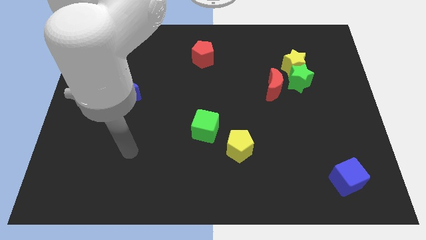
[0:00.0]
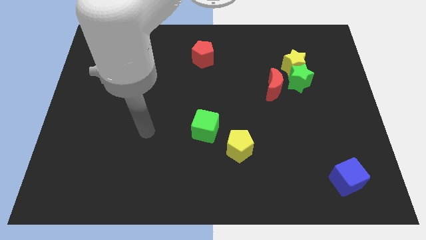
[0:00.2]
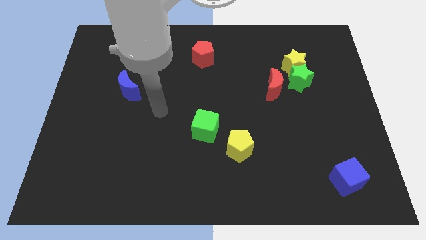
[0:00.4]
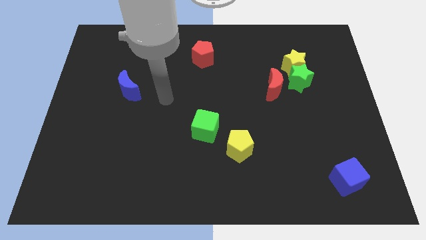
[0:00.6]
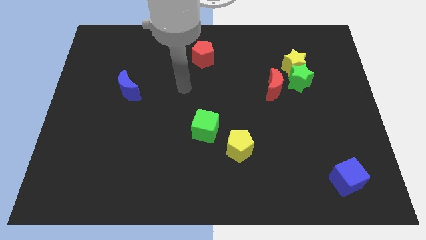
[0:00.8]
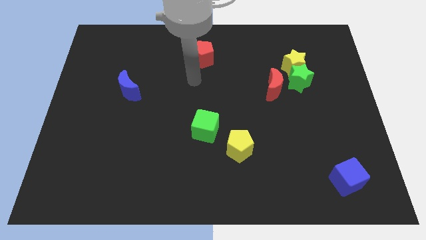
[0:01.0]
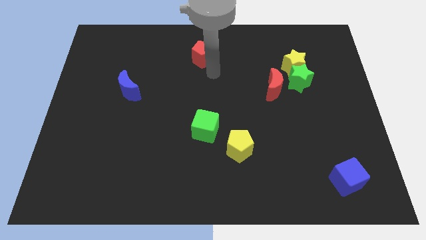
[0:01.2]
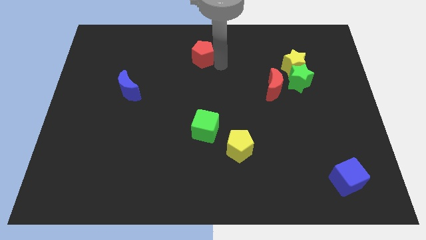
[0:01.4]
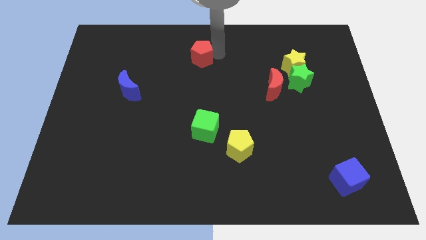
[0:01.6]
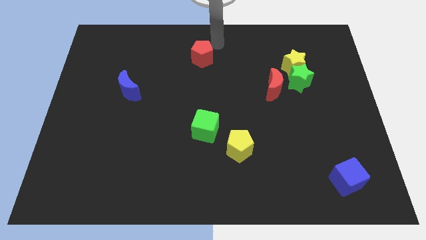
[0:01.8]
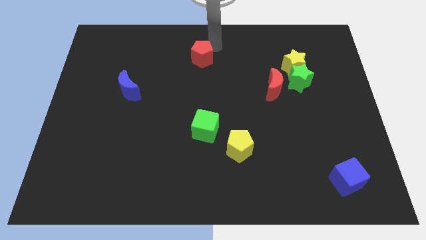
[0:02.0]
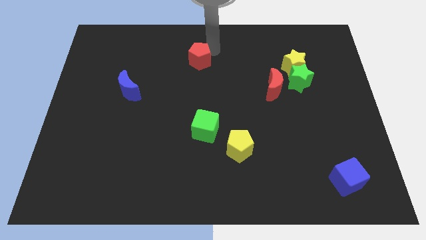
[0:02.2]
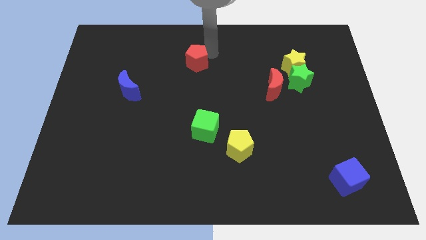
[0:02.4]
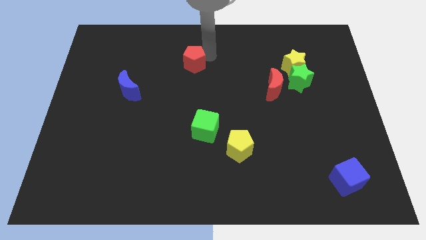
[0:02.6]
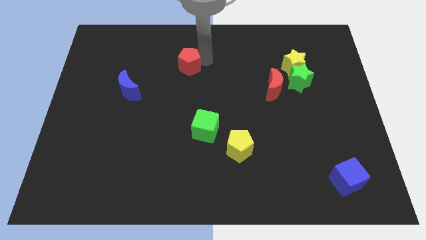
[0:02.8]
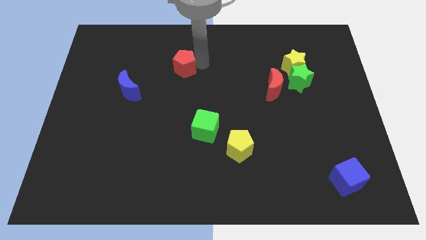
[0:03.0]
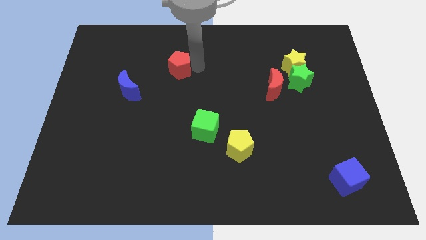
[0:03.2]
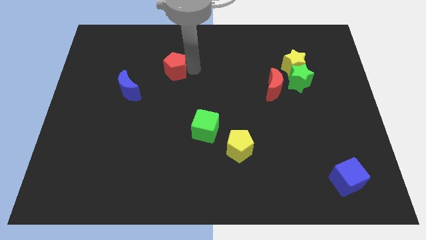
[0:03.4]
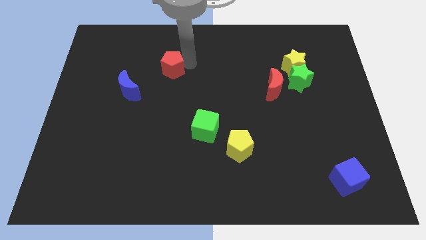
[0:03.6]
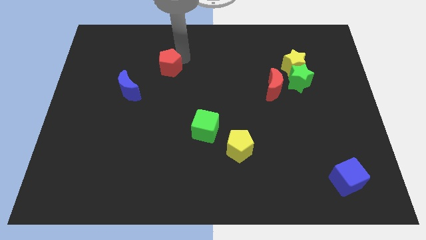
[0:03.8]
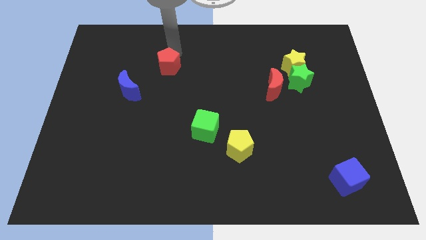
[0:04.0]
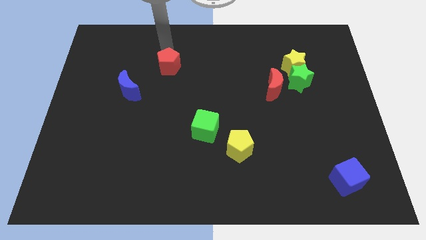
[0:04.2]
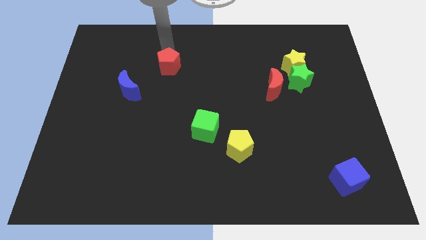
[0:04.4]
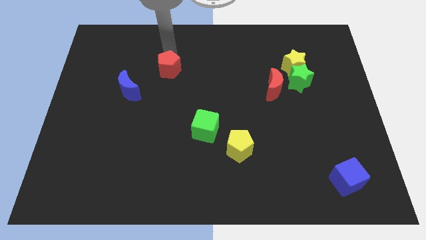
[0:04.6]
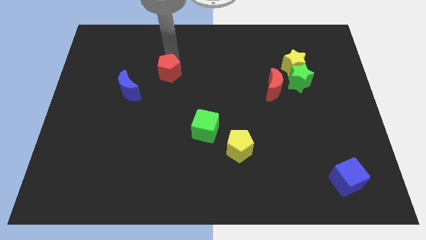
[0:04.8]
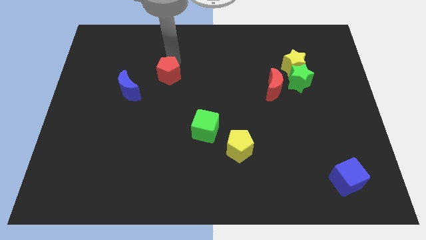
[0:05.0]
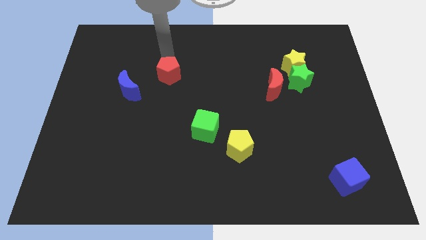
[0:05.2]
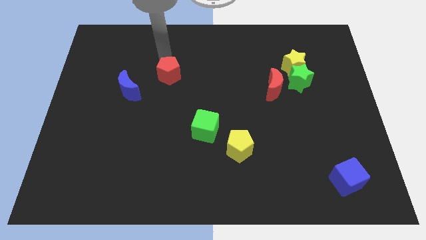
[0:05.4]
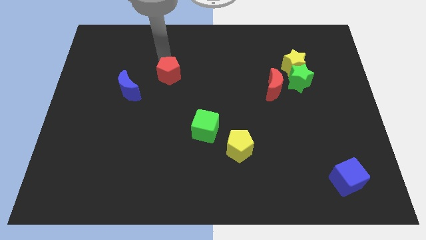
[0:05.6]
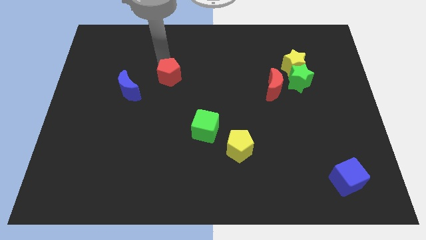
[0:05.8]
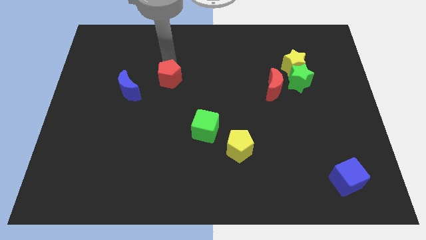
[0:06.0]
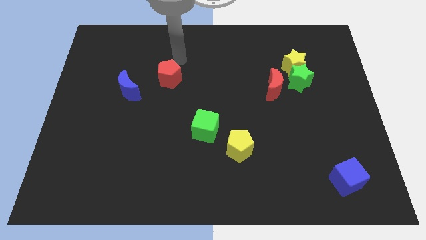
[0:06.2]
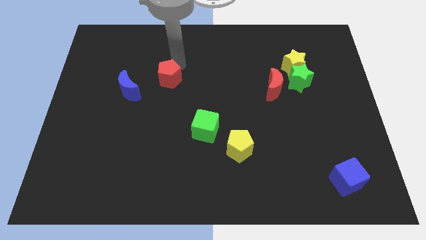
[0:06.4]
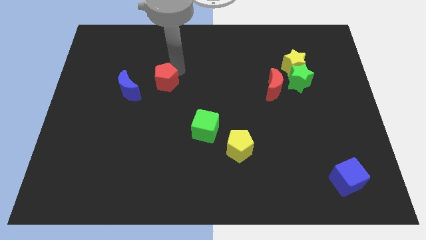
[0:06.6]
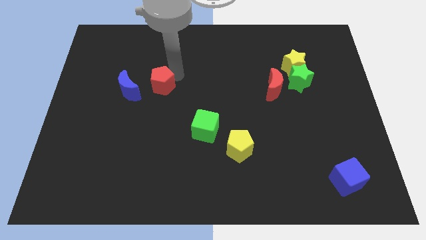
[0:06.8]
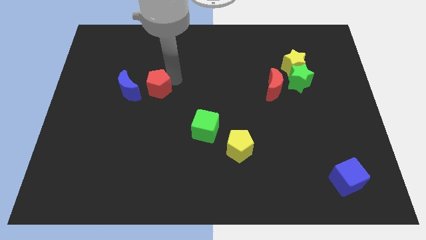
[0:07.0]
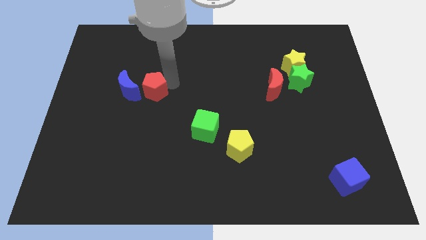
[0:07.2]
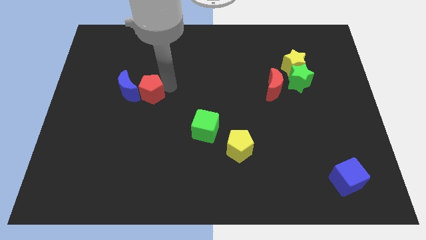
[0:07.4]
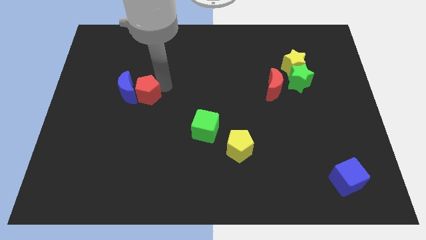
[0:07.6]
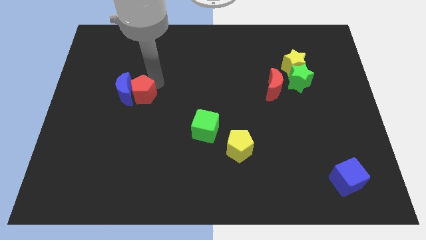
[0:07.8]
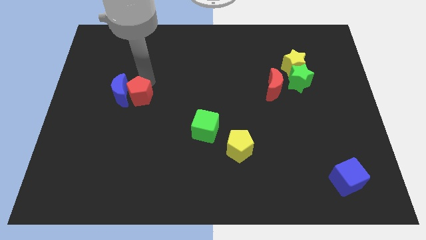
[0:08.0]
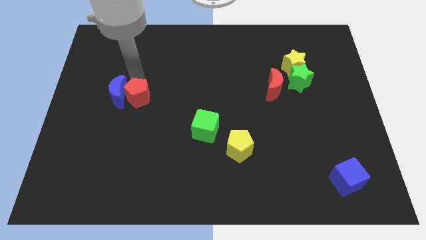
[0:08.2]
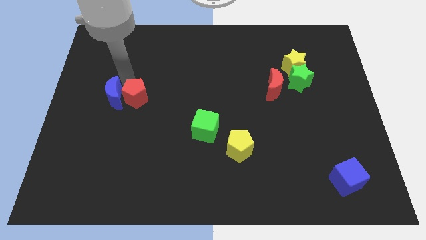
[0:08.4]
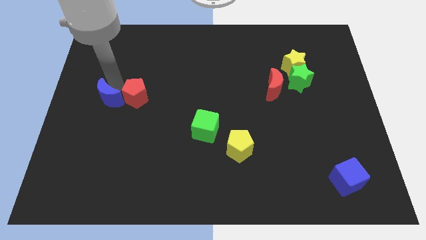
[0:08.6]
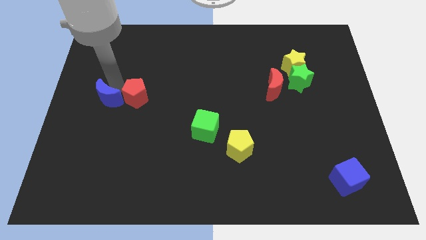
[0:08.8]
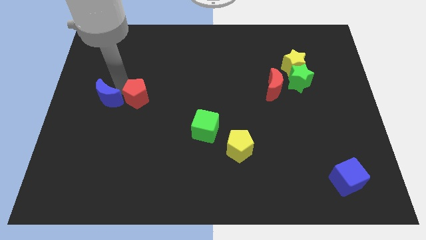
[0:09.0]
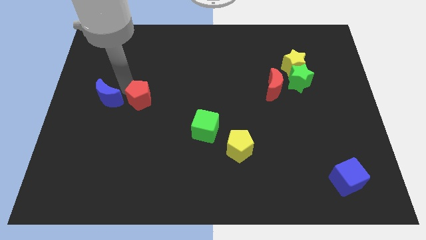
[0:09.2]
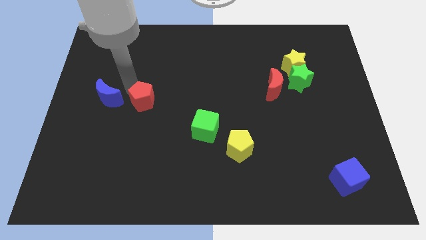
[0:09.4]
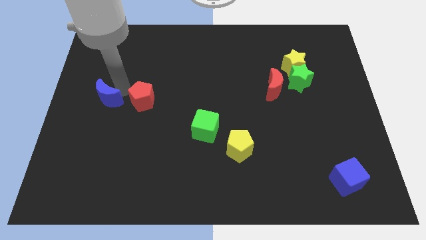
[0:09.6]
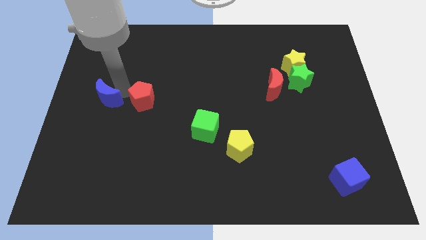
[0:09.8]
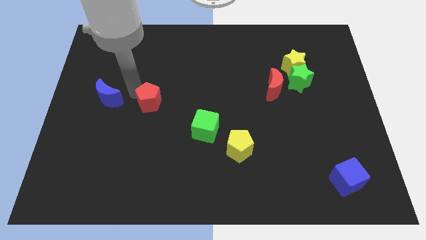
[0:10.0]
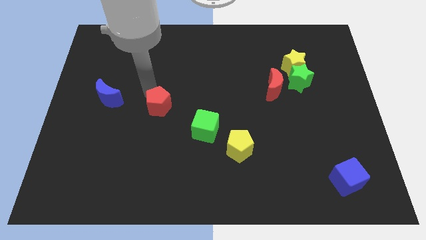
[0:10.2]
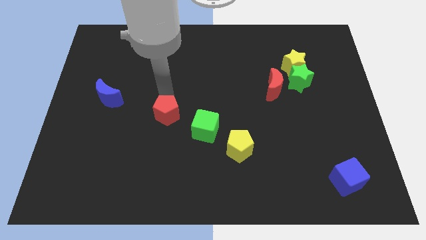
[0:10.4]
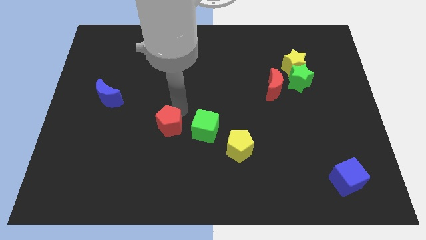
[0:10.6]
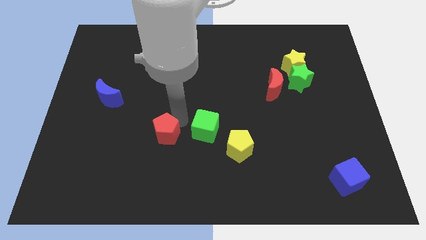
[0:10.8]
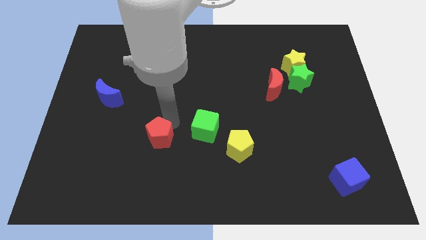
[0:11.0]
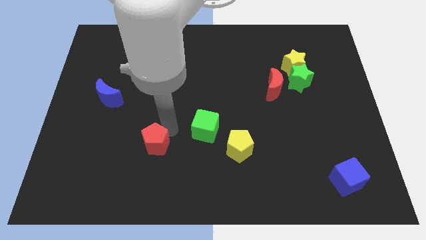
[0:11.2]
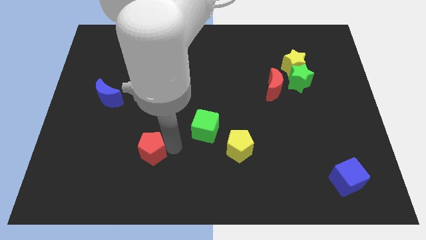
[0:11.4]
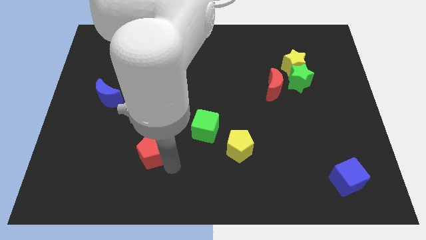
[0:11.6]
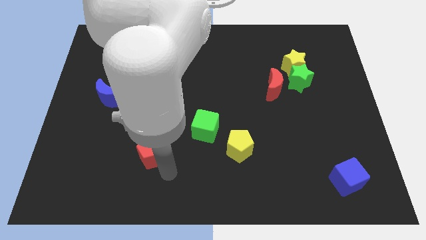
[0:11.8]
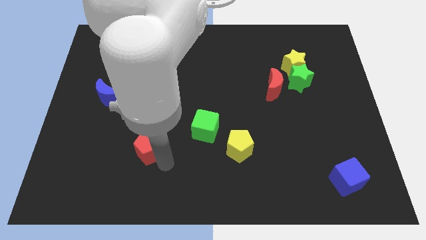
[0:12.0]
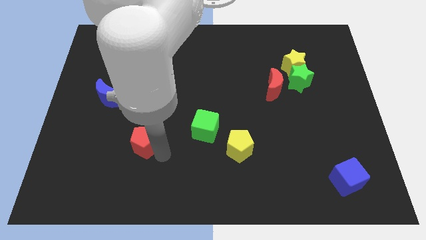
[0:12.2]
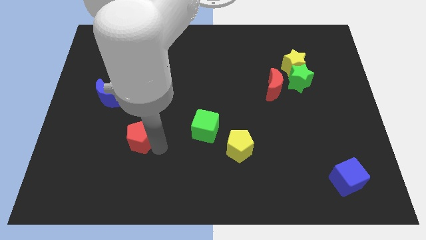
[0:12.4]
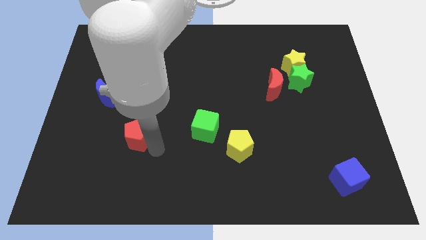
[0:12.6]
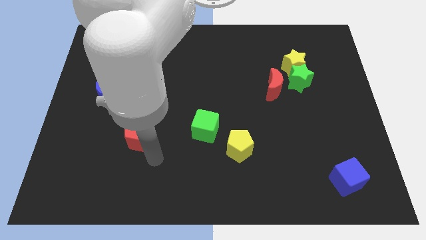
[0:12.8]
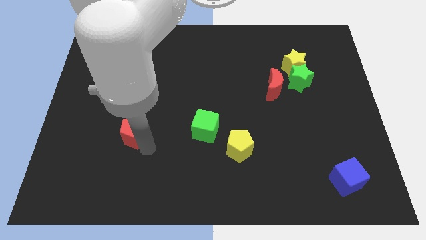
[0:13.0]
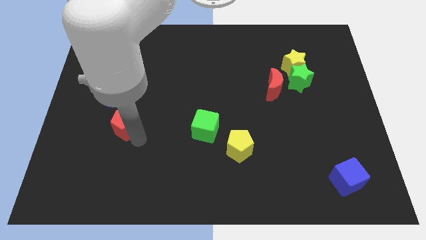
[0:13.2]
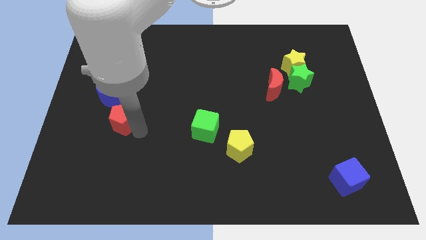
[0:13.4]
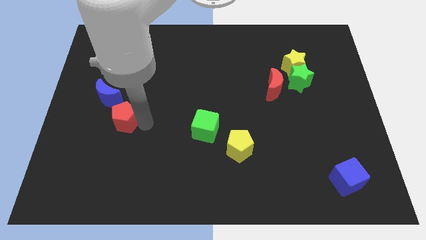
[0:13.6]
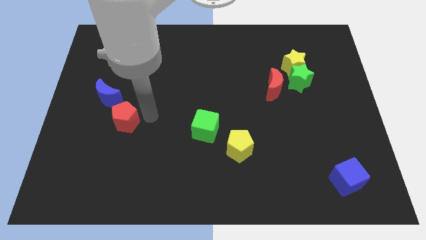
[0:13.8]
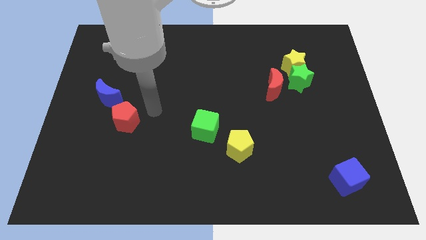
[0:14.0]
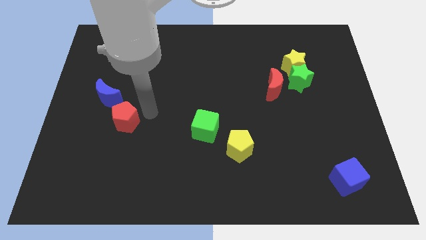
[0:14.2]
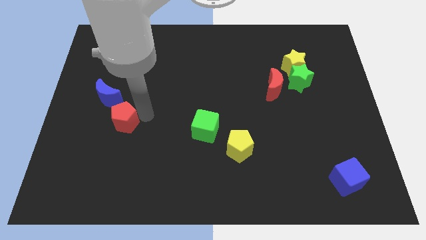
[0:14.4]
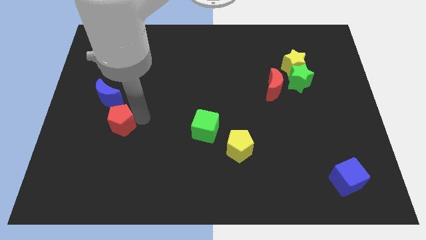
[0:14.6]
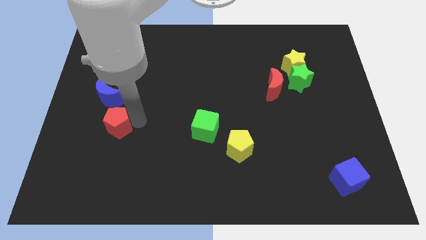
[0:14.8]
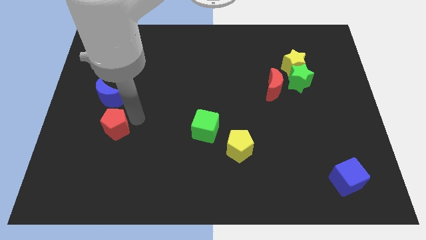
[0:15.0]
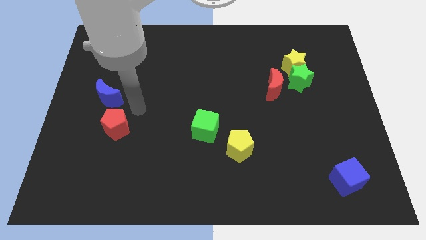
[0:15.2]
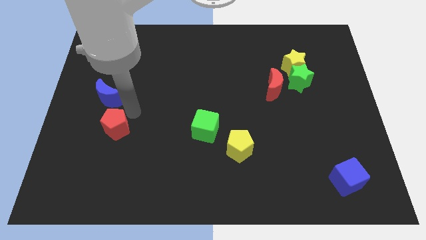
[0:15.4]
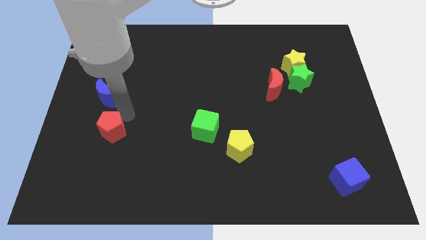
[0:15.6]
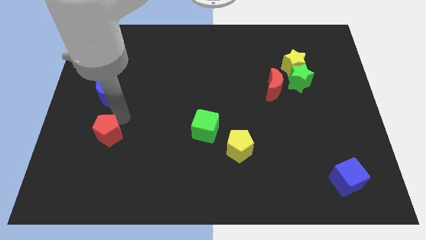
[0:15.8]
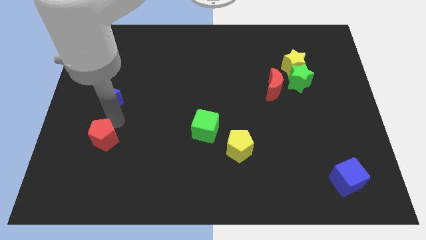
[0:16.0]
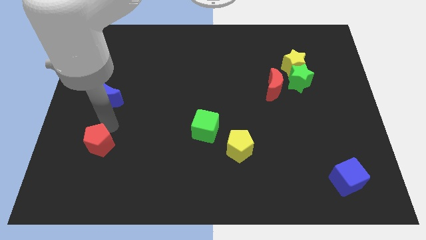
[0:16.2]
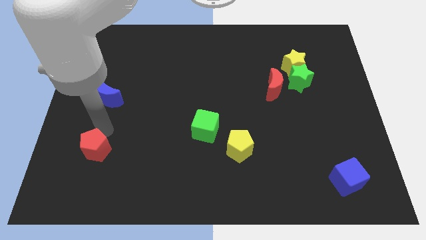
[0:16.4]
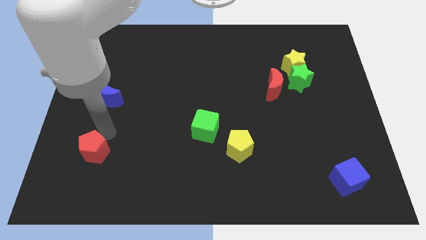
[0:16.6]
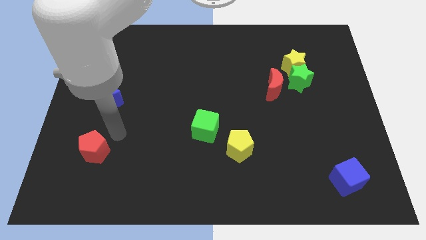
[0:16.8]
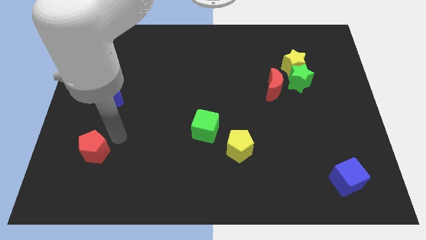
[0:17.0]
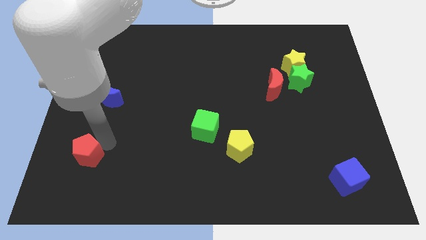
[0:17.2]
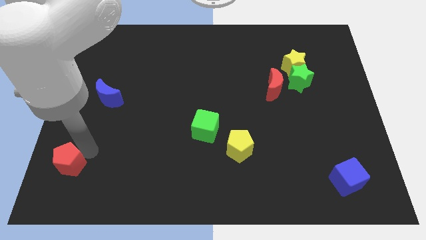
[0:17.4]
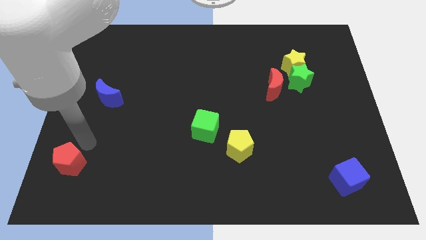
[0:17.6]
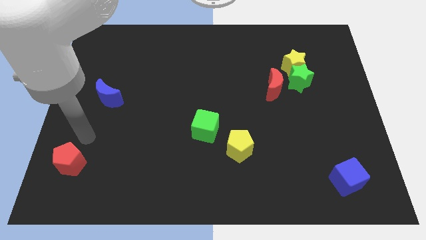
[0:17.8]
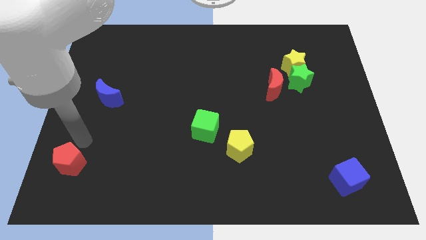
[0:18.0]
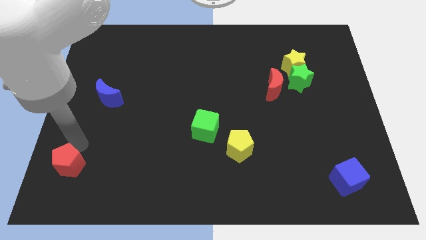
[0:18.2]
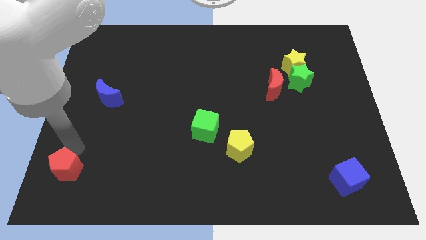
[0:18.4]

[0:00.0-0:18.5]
slide the red pentagon to the bottom left
